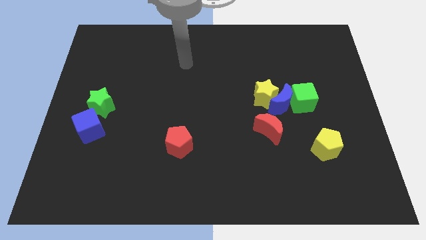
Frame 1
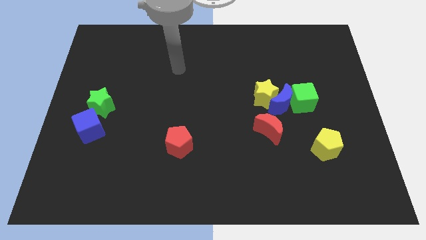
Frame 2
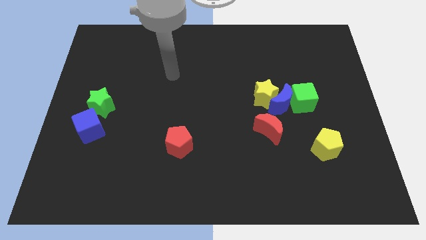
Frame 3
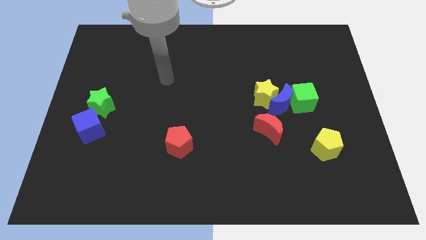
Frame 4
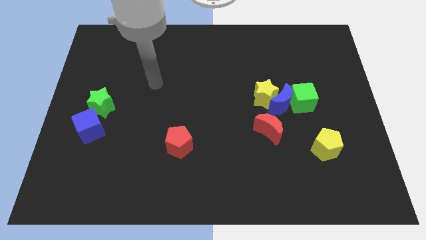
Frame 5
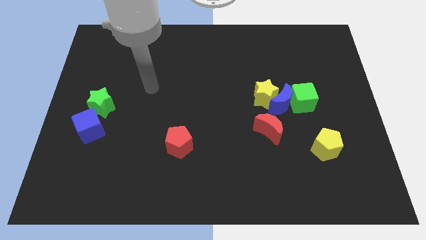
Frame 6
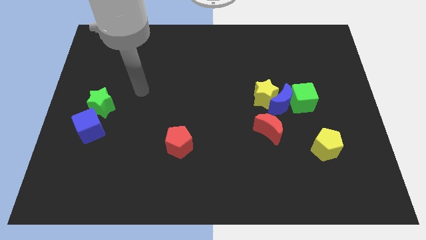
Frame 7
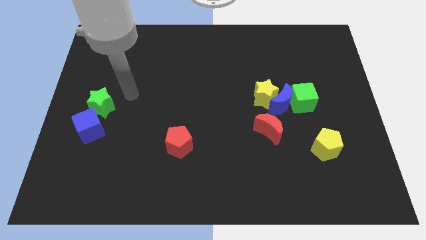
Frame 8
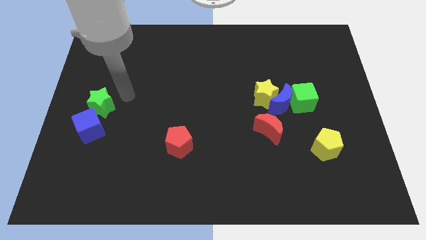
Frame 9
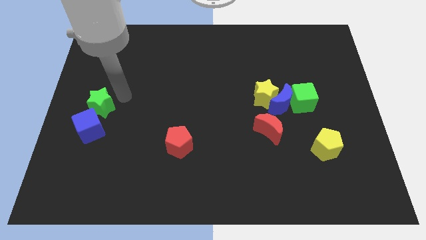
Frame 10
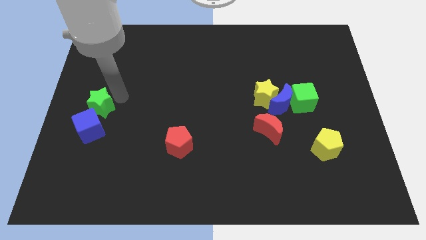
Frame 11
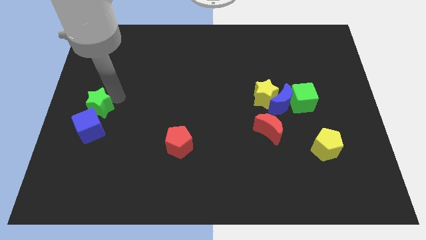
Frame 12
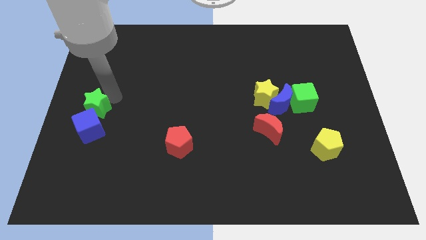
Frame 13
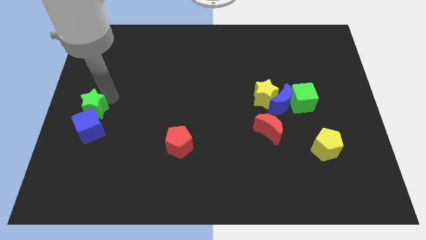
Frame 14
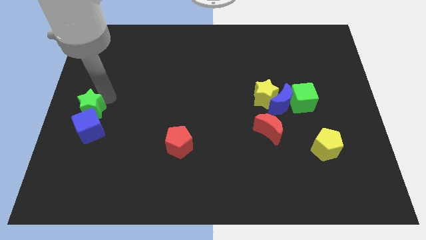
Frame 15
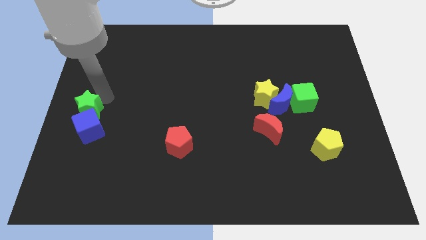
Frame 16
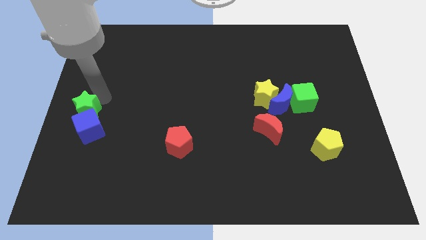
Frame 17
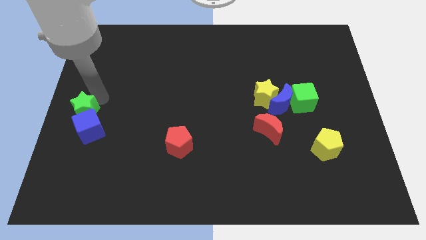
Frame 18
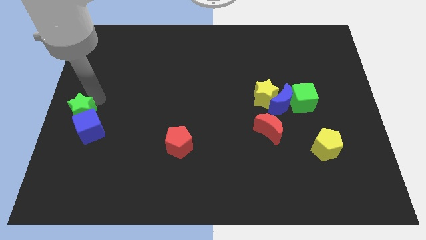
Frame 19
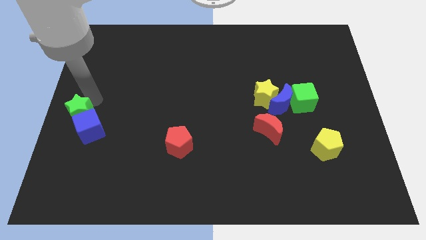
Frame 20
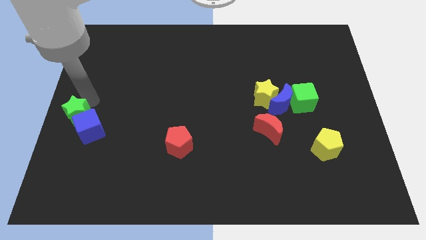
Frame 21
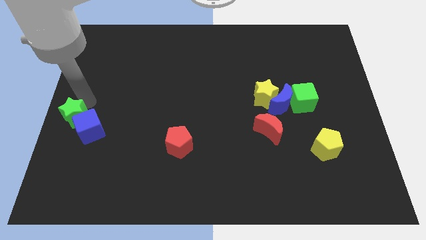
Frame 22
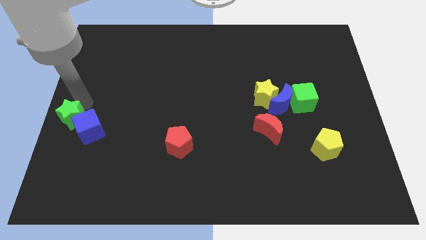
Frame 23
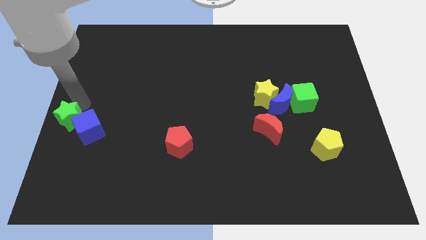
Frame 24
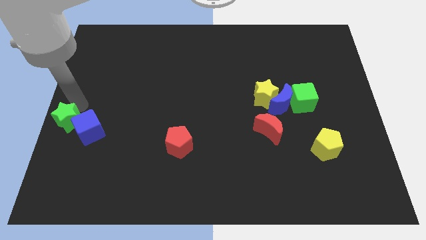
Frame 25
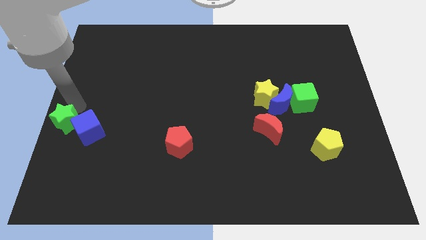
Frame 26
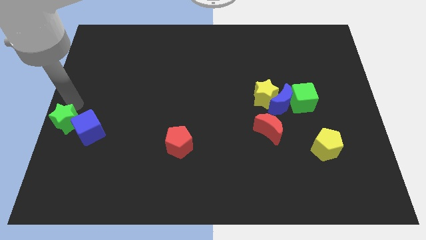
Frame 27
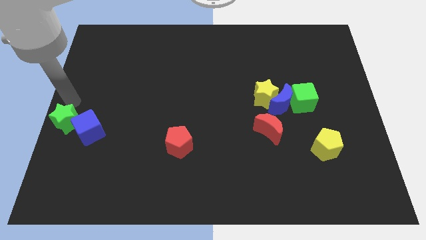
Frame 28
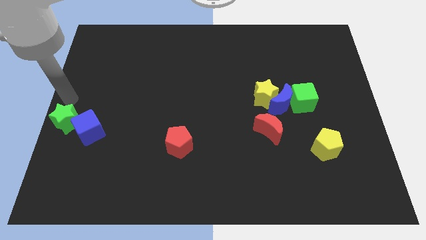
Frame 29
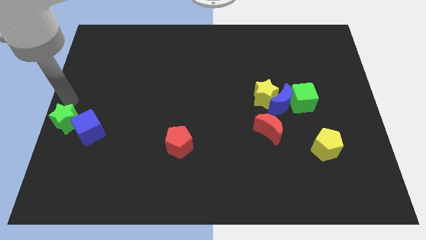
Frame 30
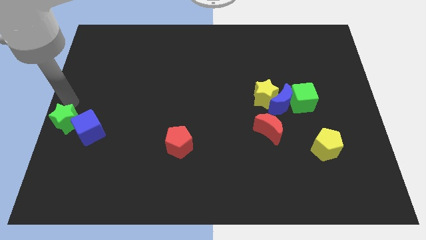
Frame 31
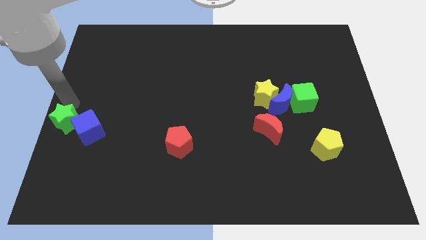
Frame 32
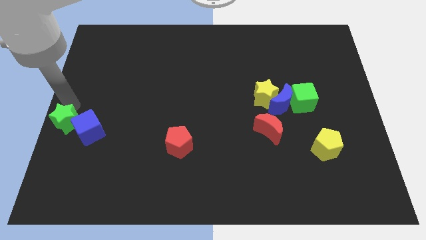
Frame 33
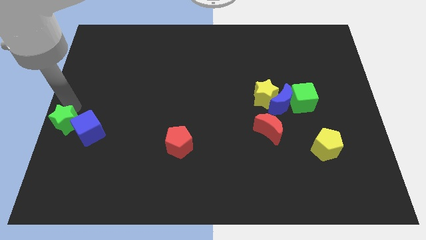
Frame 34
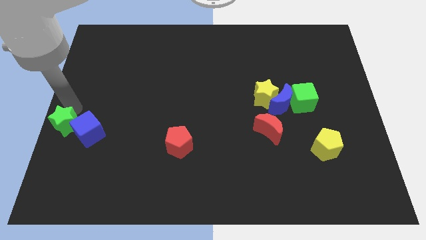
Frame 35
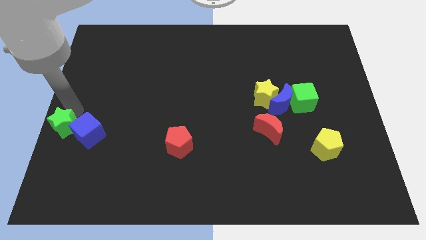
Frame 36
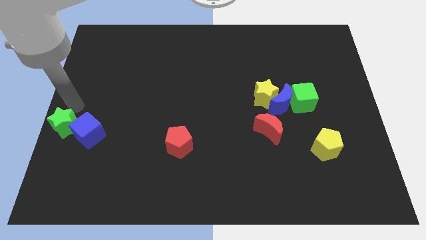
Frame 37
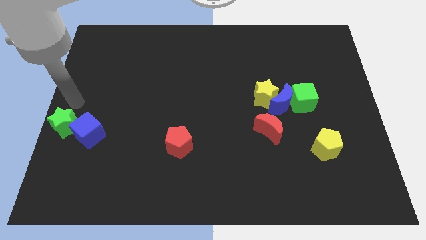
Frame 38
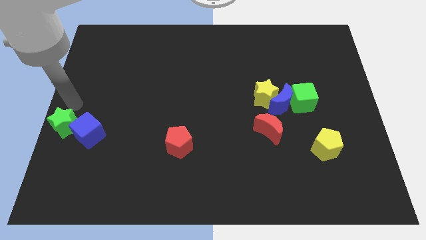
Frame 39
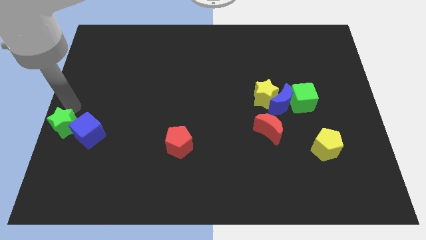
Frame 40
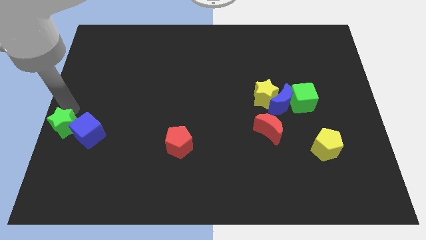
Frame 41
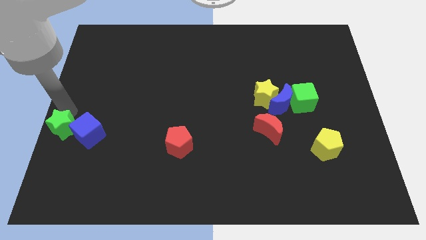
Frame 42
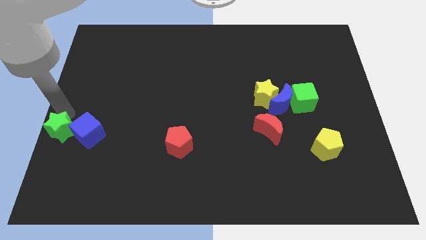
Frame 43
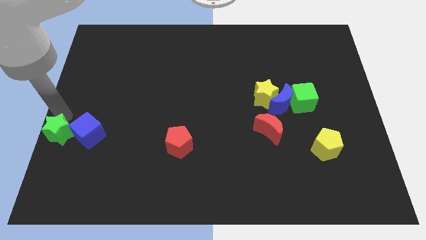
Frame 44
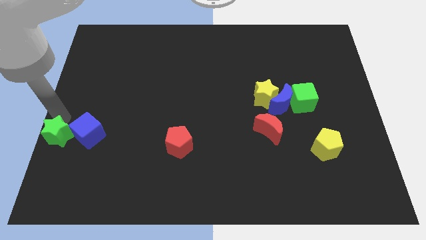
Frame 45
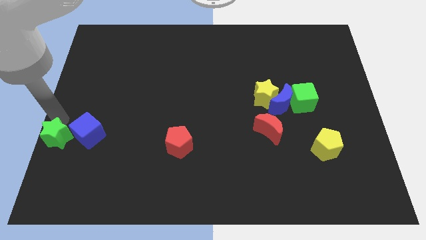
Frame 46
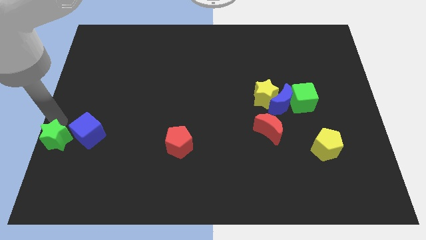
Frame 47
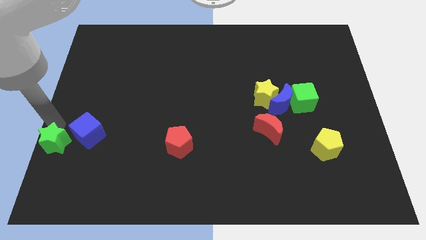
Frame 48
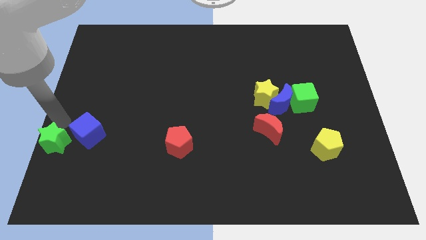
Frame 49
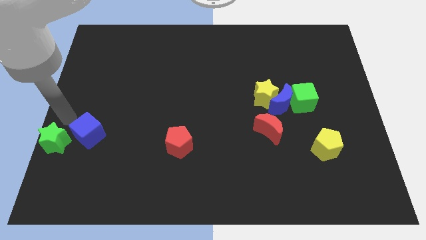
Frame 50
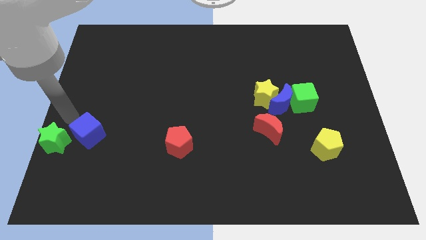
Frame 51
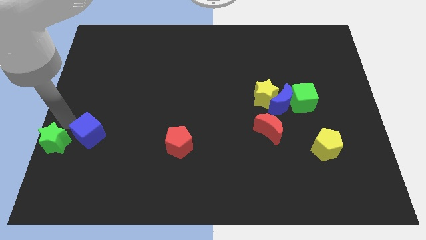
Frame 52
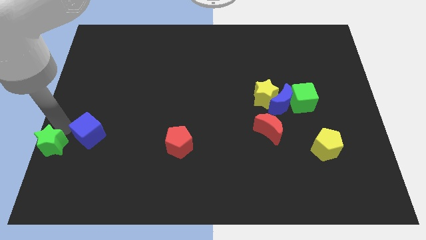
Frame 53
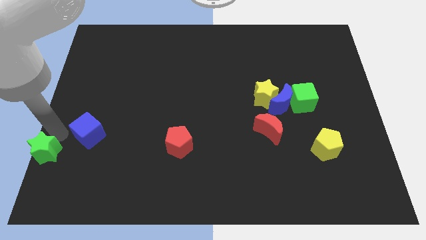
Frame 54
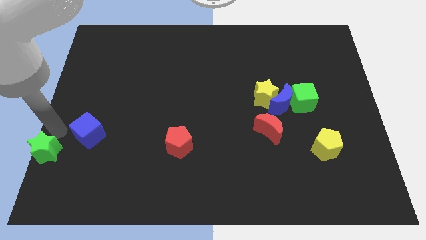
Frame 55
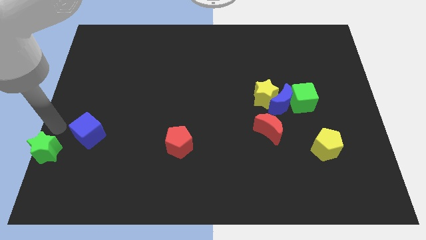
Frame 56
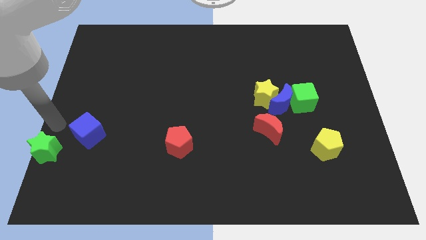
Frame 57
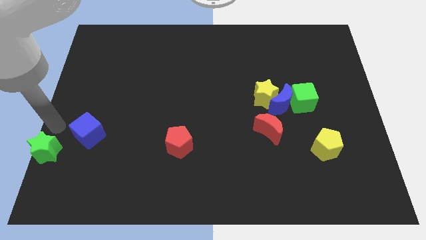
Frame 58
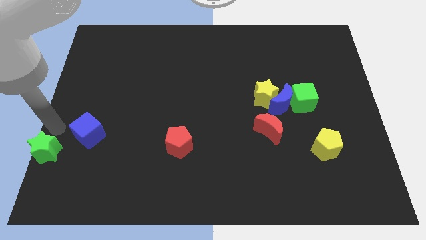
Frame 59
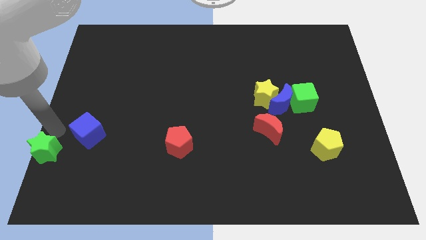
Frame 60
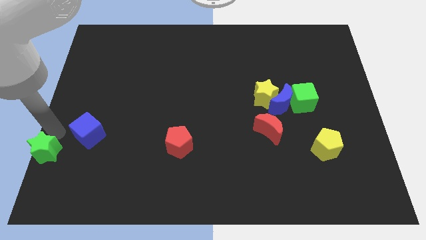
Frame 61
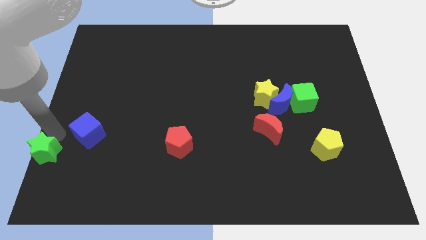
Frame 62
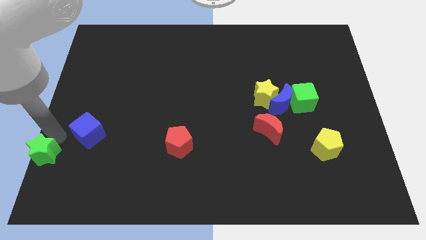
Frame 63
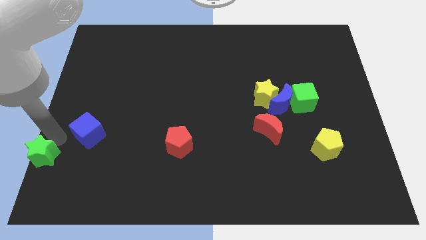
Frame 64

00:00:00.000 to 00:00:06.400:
slide the green star to the bottom left of the board
